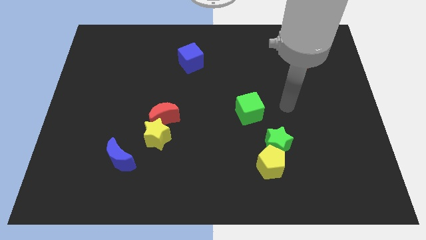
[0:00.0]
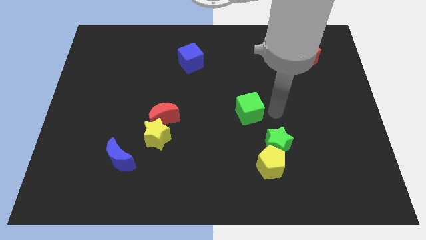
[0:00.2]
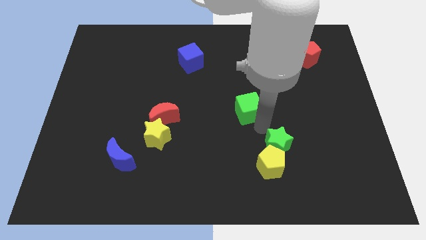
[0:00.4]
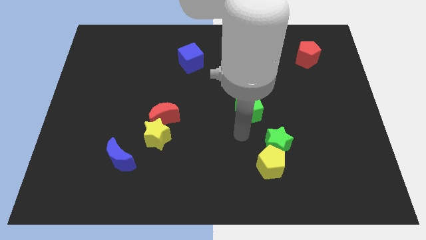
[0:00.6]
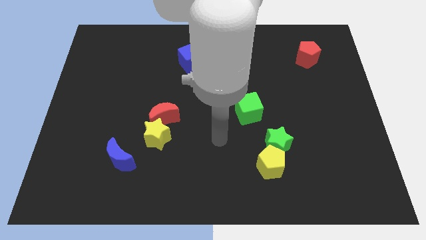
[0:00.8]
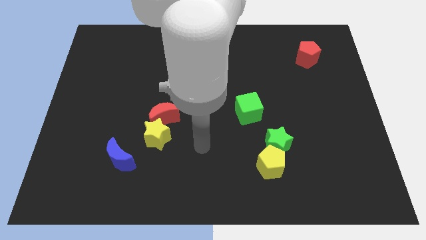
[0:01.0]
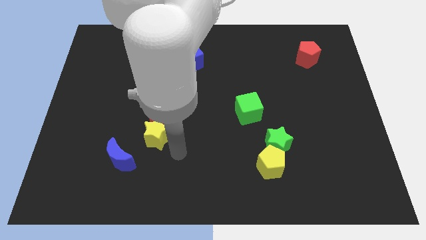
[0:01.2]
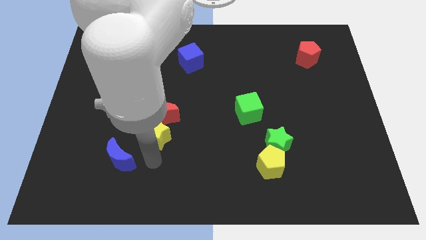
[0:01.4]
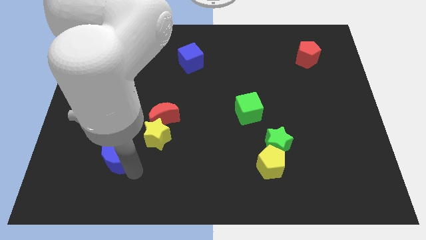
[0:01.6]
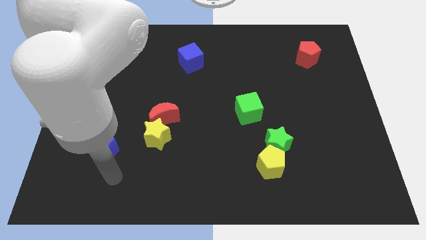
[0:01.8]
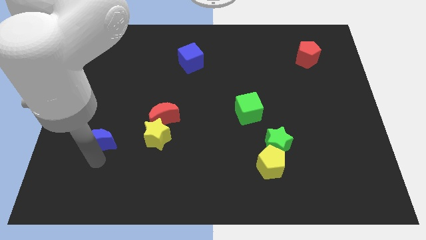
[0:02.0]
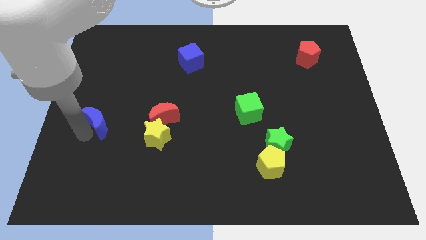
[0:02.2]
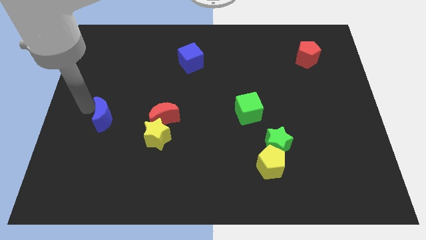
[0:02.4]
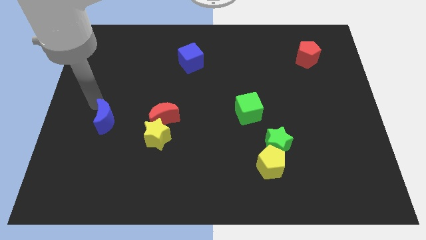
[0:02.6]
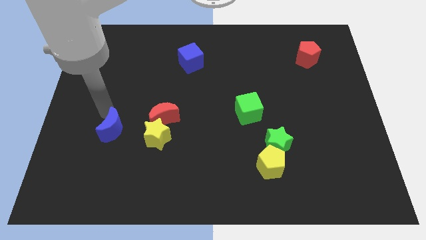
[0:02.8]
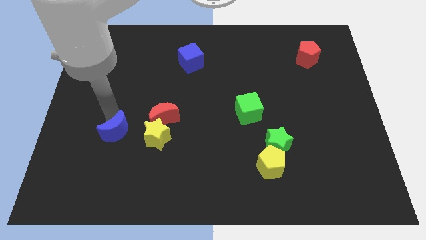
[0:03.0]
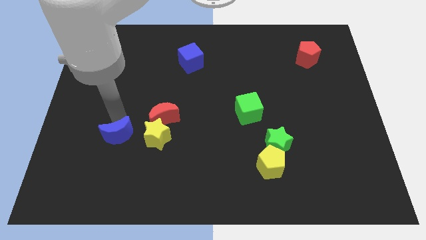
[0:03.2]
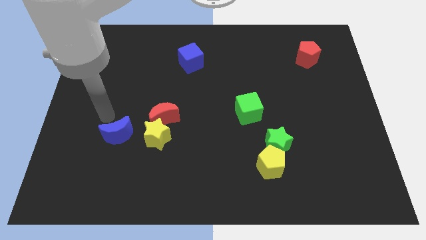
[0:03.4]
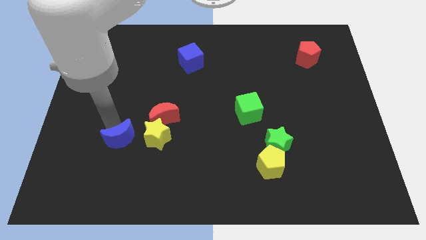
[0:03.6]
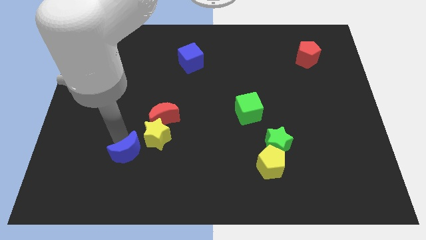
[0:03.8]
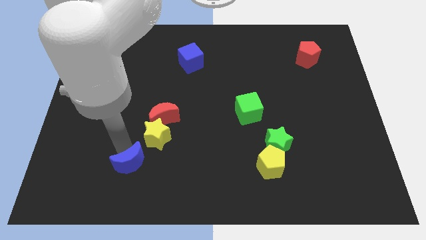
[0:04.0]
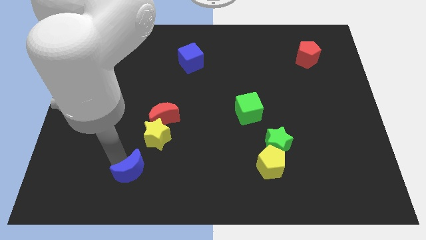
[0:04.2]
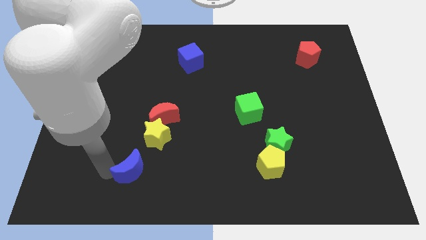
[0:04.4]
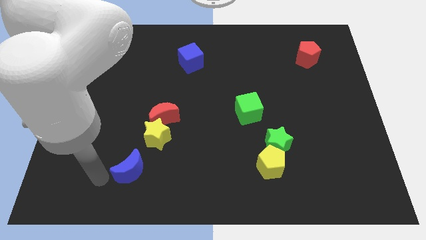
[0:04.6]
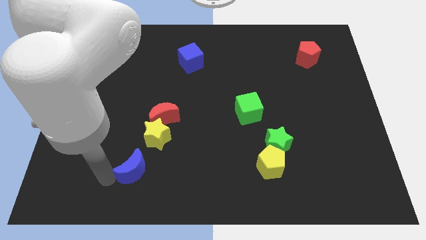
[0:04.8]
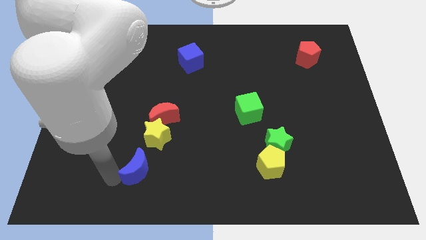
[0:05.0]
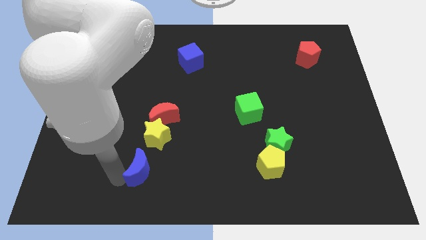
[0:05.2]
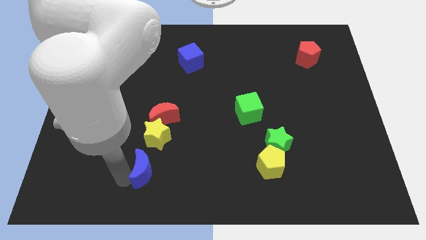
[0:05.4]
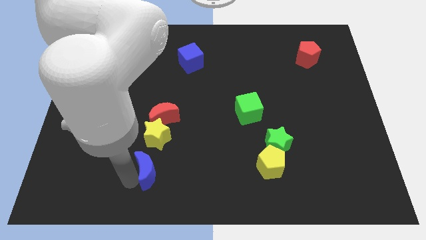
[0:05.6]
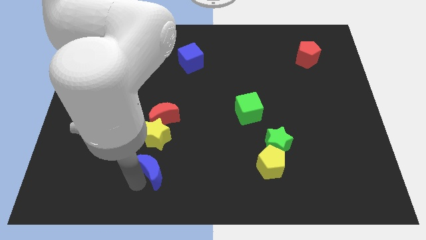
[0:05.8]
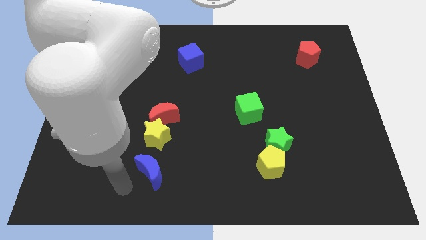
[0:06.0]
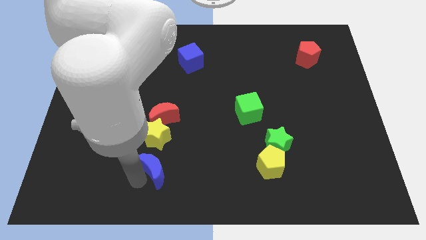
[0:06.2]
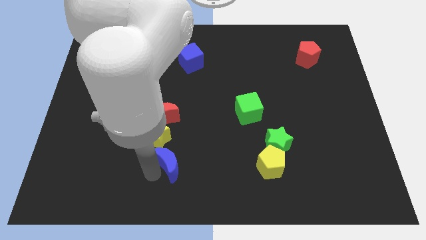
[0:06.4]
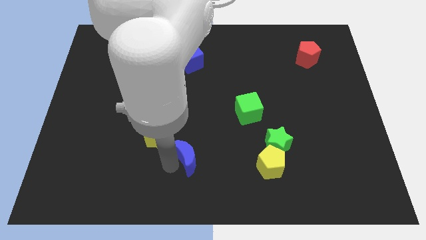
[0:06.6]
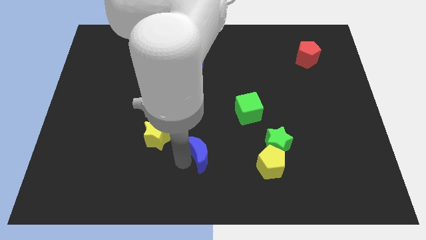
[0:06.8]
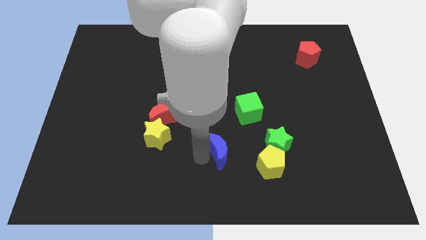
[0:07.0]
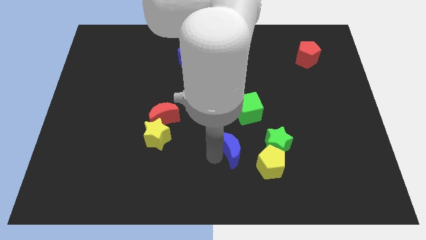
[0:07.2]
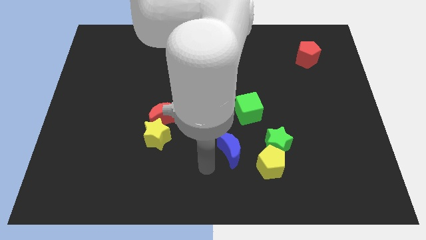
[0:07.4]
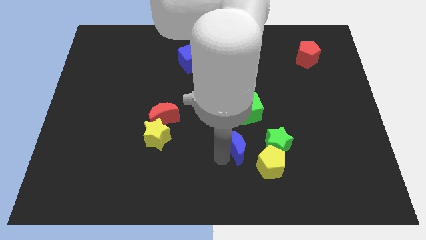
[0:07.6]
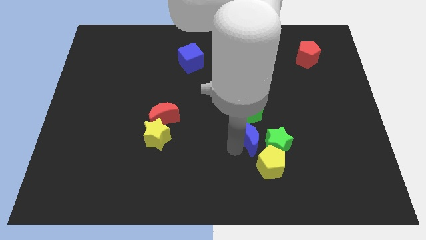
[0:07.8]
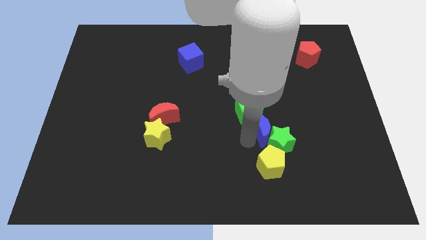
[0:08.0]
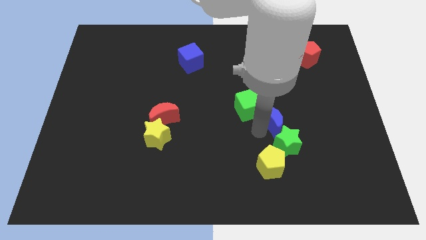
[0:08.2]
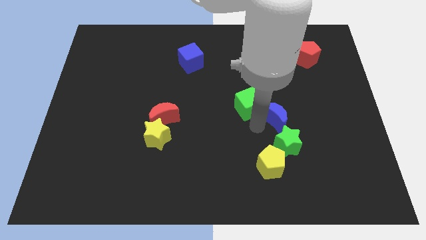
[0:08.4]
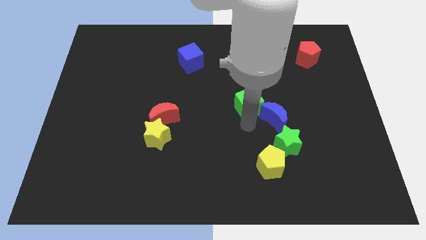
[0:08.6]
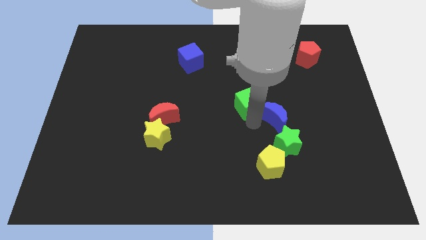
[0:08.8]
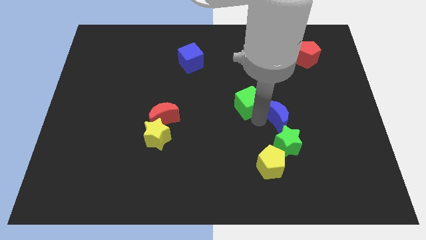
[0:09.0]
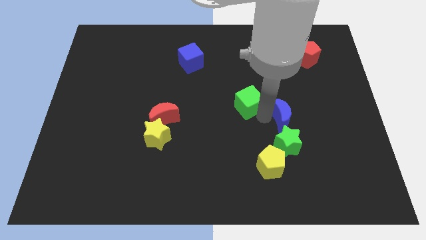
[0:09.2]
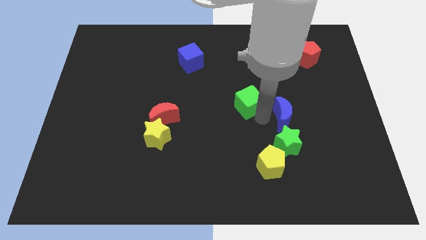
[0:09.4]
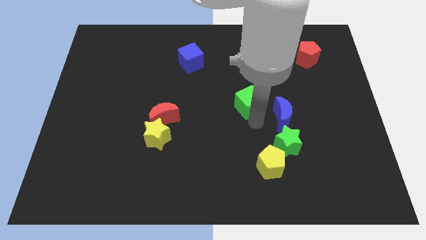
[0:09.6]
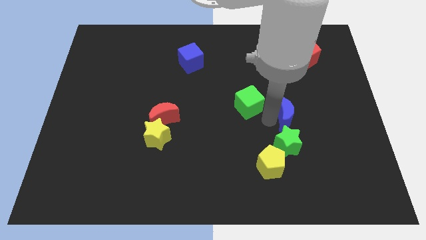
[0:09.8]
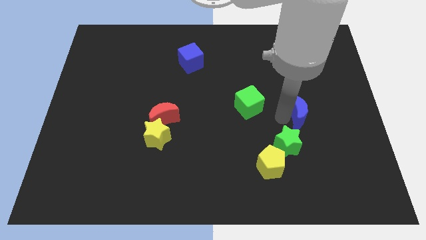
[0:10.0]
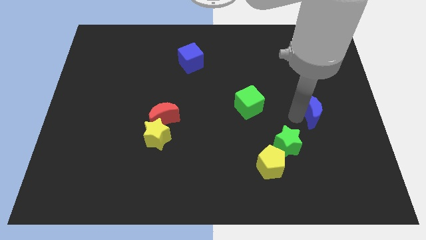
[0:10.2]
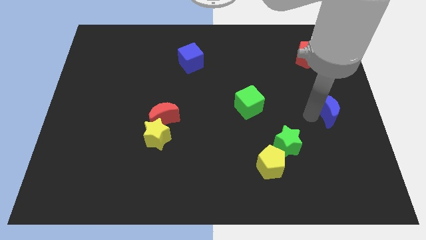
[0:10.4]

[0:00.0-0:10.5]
put the blue moon to the center right

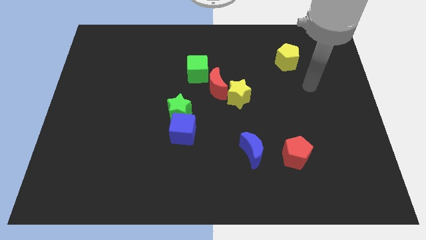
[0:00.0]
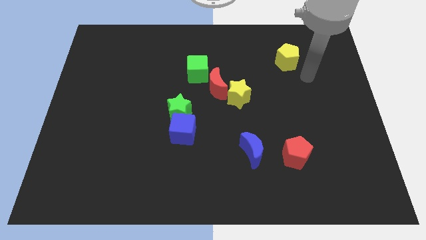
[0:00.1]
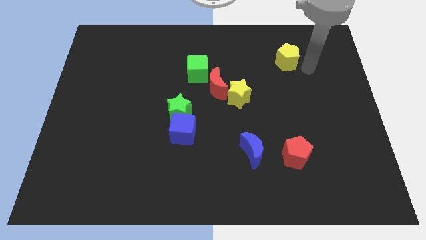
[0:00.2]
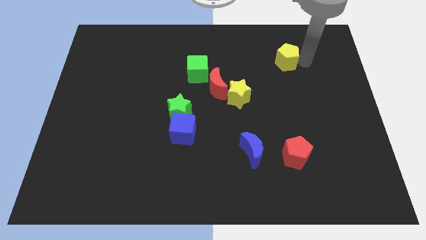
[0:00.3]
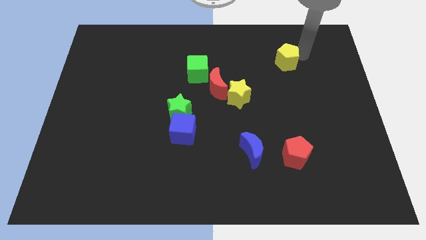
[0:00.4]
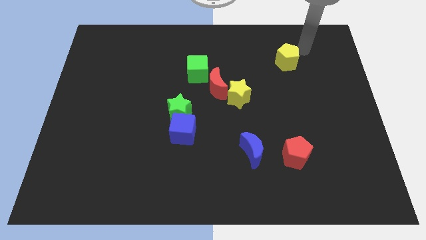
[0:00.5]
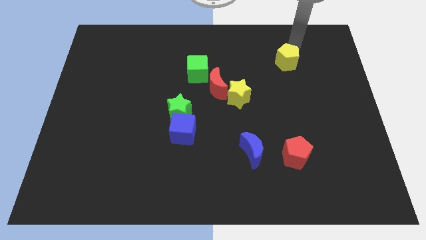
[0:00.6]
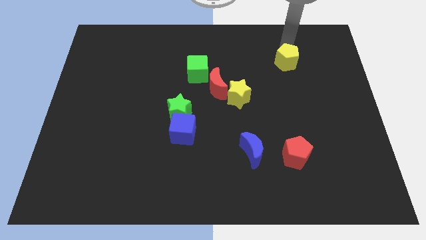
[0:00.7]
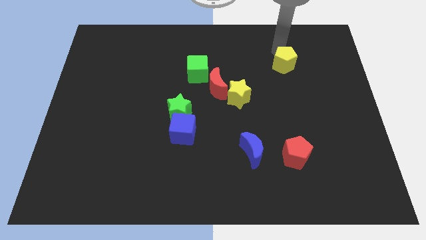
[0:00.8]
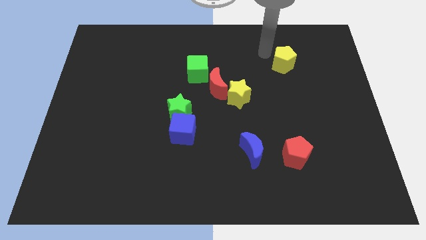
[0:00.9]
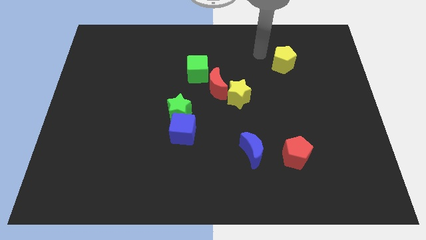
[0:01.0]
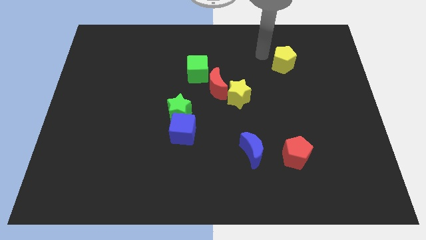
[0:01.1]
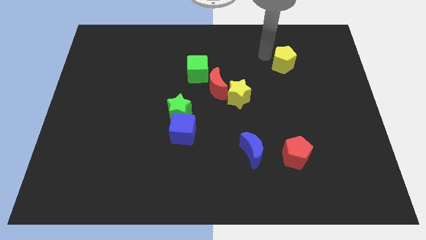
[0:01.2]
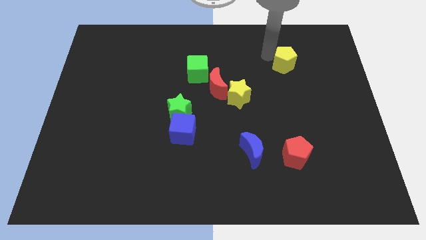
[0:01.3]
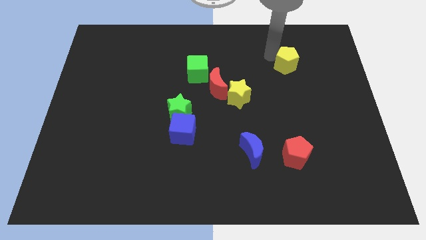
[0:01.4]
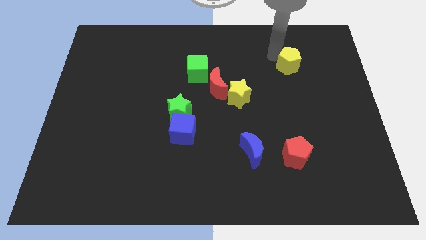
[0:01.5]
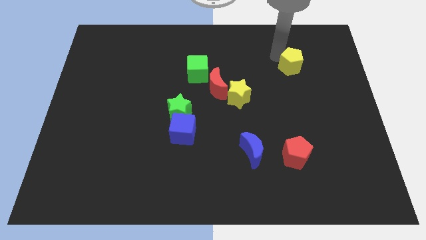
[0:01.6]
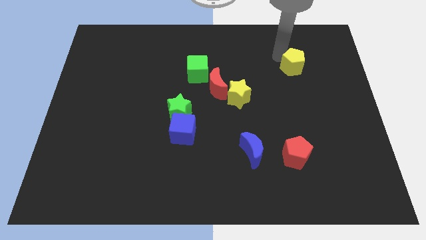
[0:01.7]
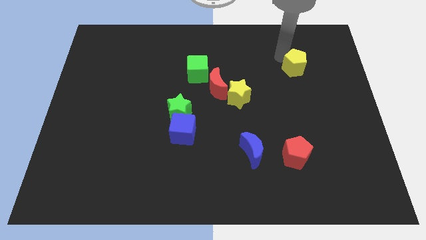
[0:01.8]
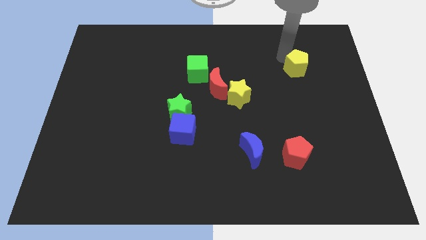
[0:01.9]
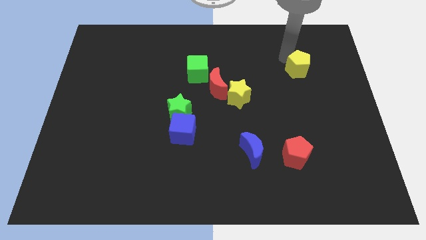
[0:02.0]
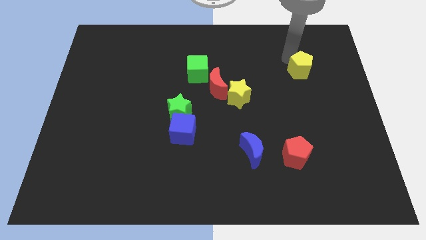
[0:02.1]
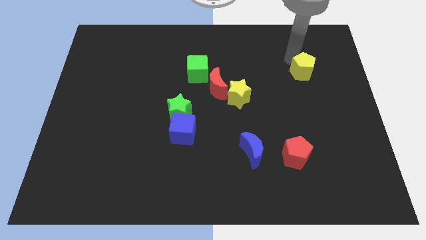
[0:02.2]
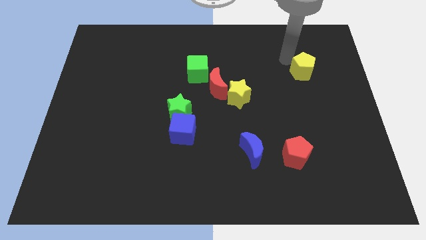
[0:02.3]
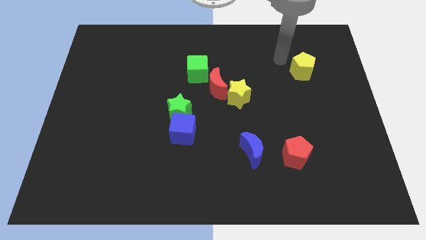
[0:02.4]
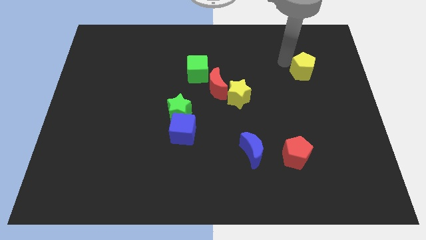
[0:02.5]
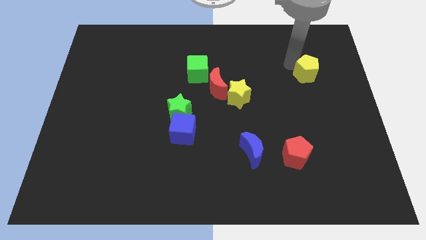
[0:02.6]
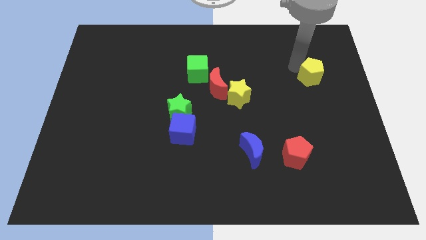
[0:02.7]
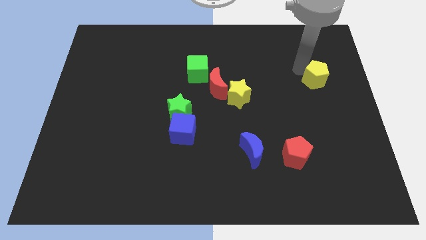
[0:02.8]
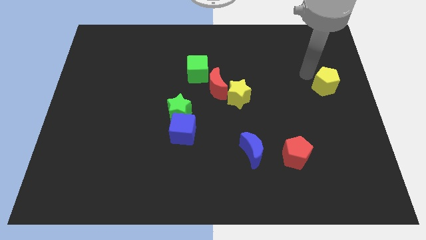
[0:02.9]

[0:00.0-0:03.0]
slide the yellow pentagon to the right side
